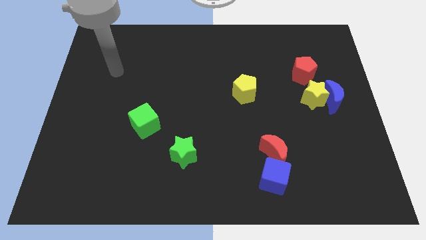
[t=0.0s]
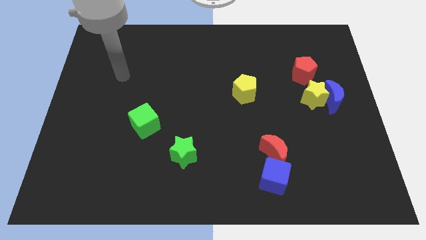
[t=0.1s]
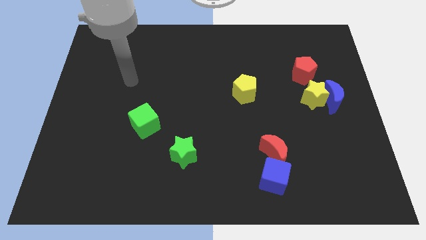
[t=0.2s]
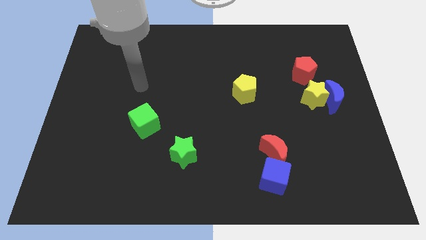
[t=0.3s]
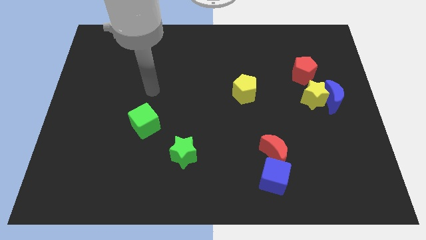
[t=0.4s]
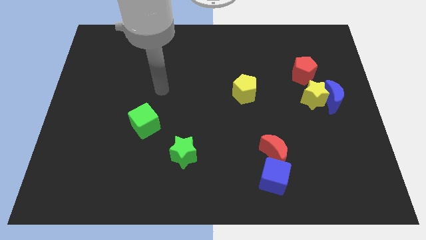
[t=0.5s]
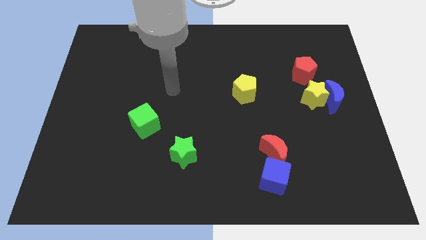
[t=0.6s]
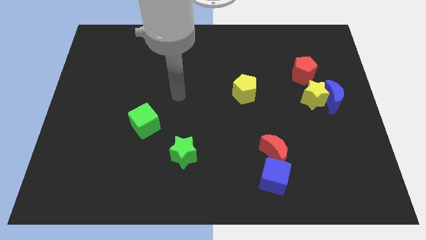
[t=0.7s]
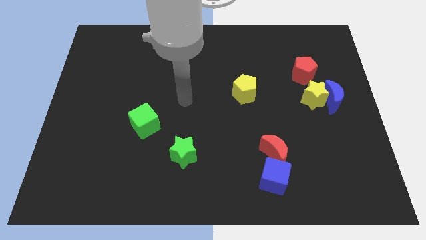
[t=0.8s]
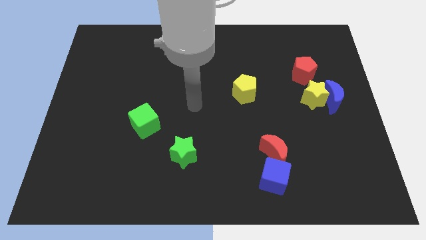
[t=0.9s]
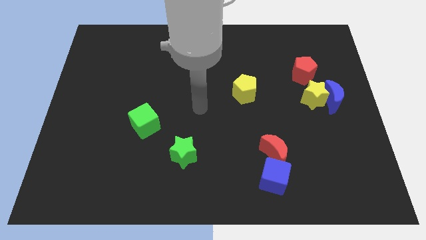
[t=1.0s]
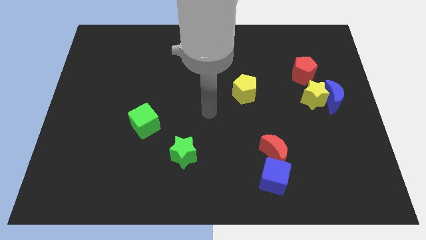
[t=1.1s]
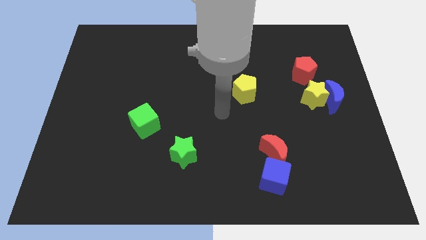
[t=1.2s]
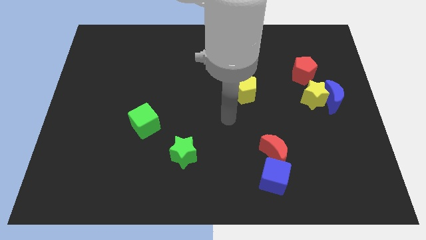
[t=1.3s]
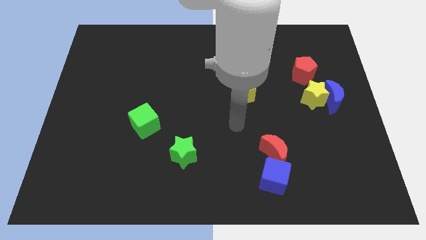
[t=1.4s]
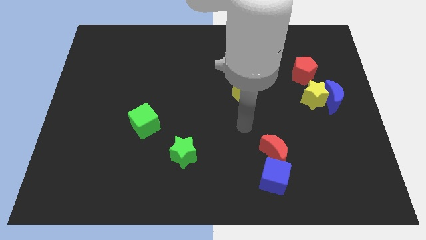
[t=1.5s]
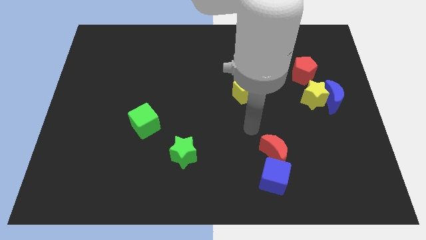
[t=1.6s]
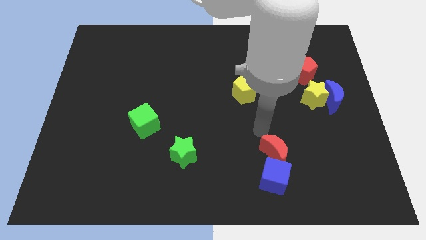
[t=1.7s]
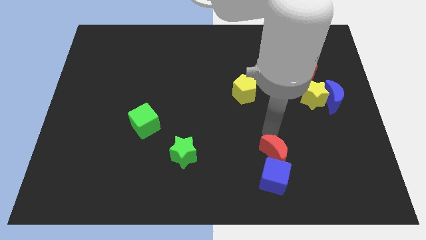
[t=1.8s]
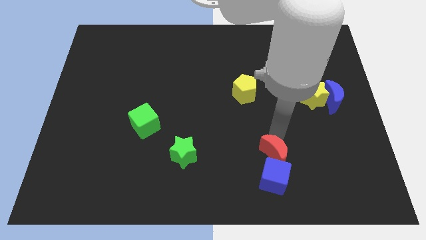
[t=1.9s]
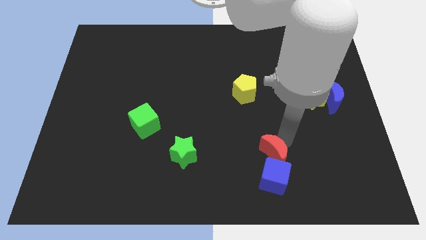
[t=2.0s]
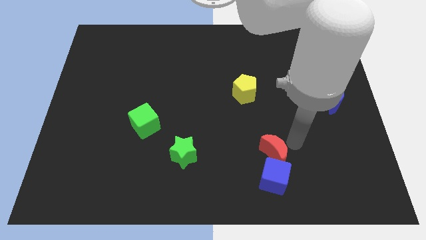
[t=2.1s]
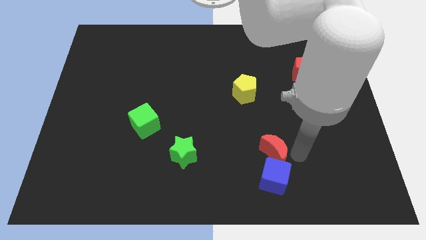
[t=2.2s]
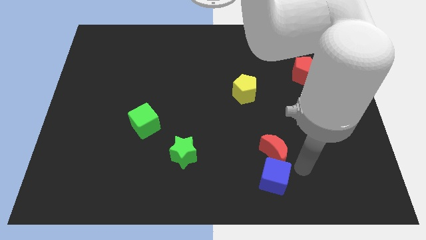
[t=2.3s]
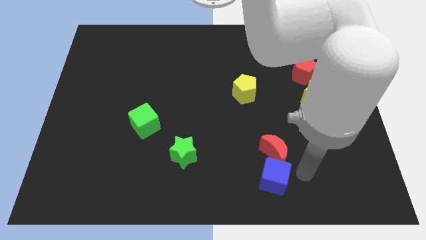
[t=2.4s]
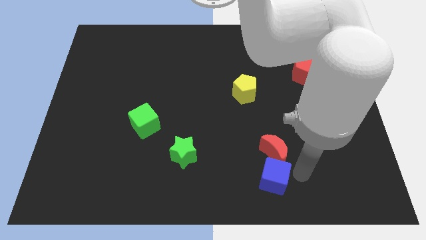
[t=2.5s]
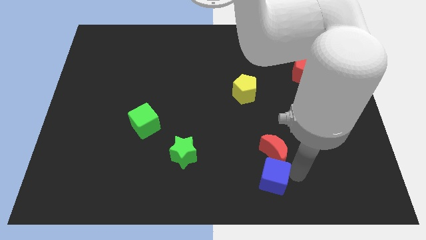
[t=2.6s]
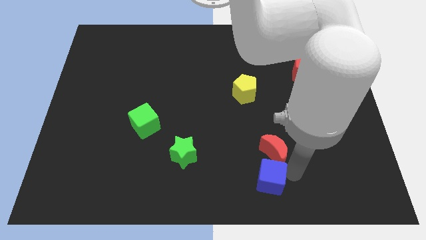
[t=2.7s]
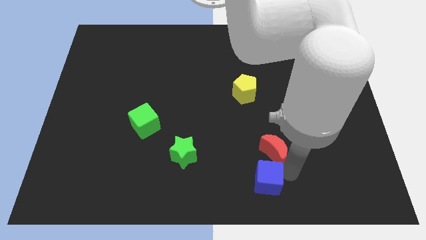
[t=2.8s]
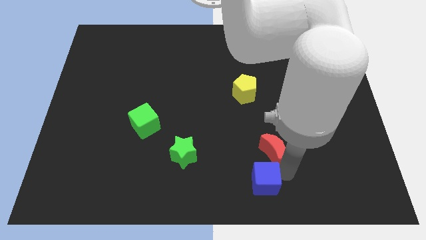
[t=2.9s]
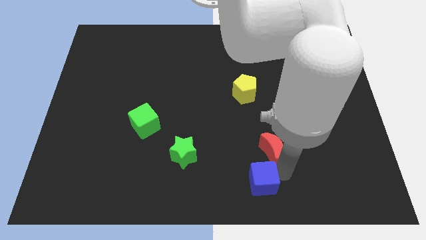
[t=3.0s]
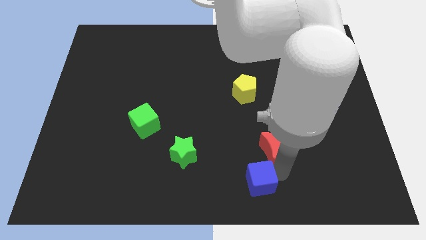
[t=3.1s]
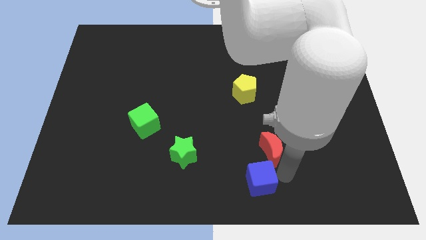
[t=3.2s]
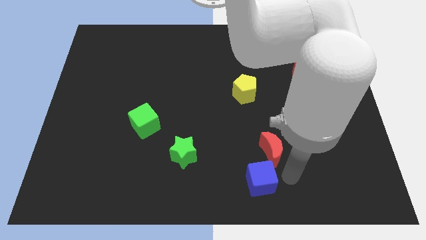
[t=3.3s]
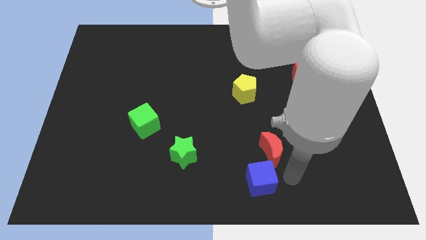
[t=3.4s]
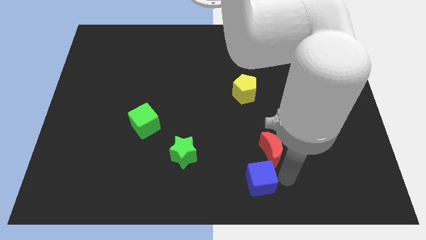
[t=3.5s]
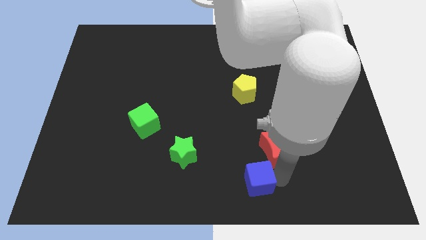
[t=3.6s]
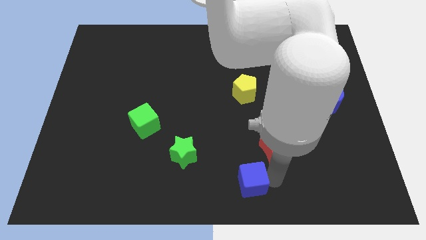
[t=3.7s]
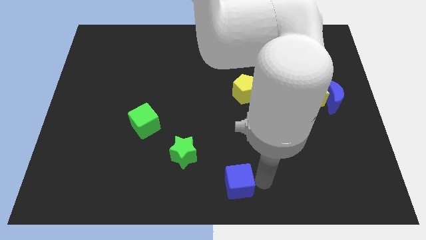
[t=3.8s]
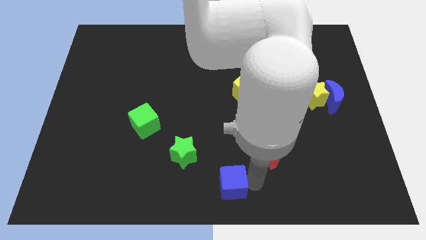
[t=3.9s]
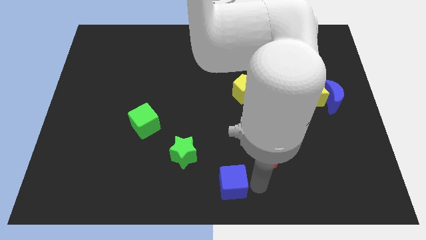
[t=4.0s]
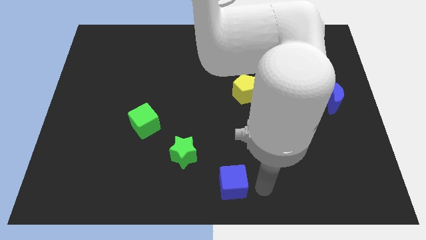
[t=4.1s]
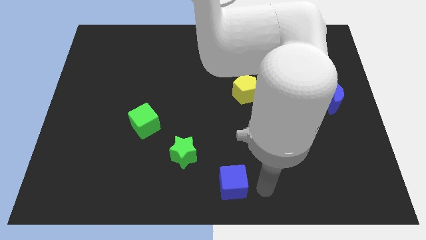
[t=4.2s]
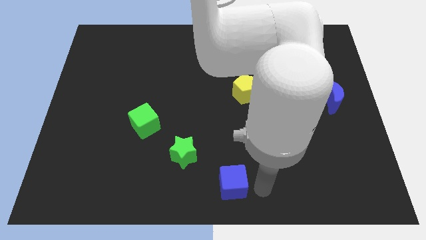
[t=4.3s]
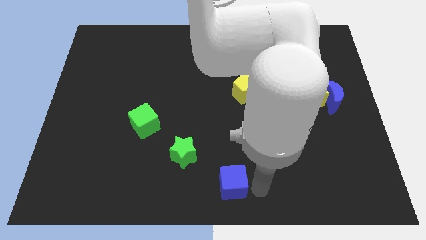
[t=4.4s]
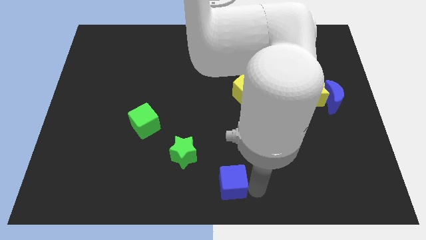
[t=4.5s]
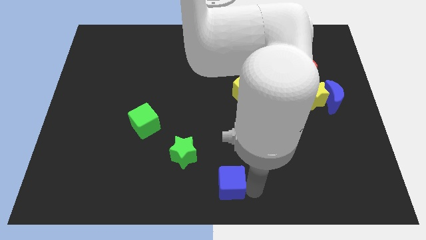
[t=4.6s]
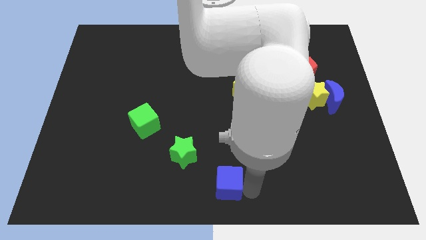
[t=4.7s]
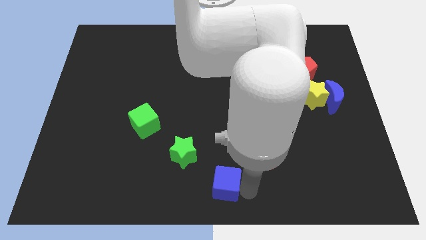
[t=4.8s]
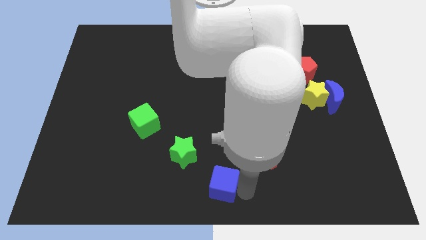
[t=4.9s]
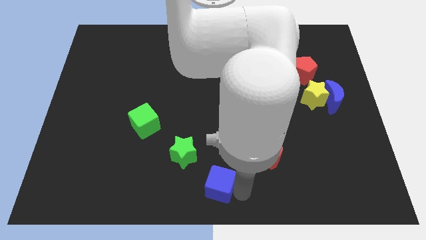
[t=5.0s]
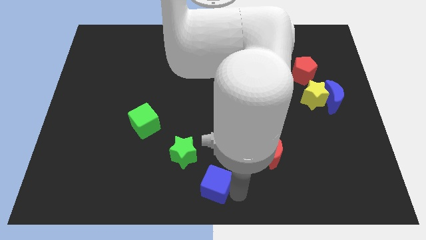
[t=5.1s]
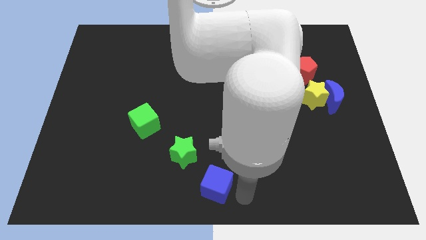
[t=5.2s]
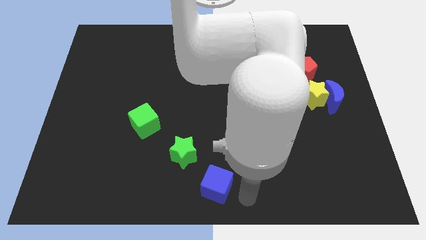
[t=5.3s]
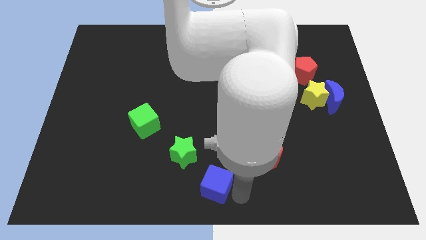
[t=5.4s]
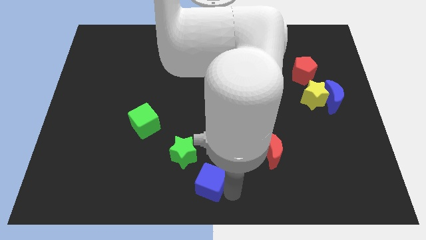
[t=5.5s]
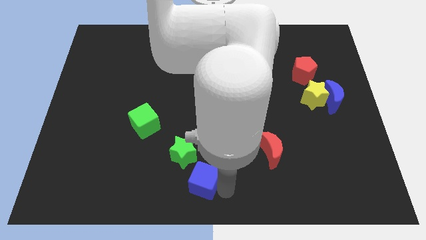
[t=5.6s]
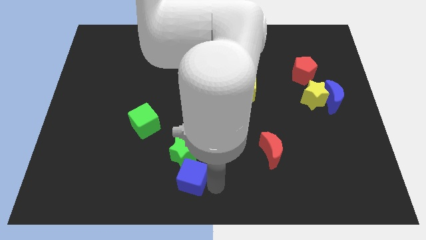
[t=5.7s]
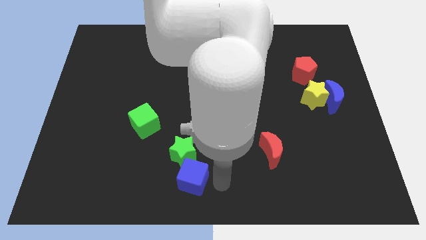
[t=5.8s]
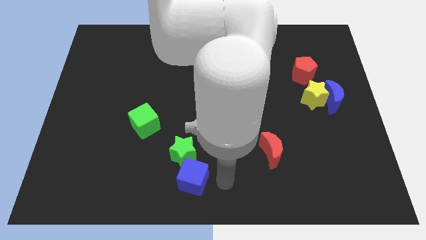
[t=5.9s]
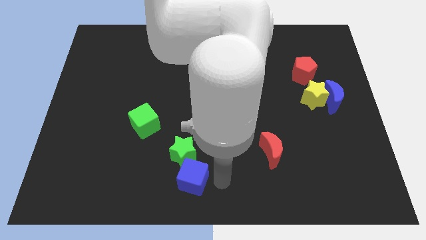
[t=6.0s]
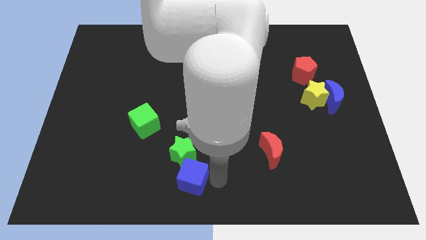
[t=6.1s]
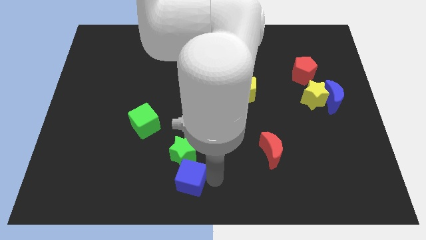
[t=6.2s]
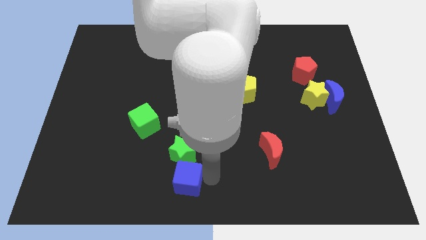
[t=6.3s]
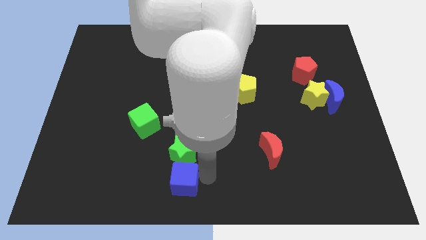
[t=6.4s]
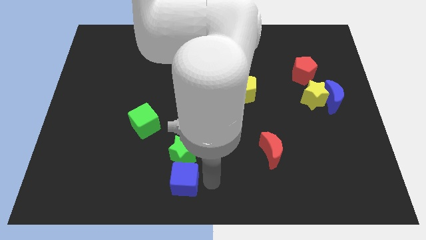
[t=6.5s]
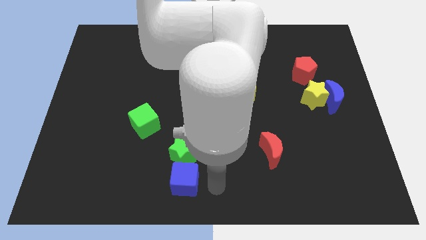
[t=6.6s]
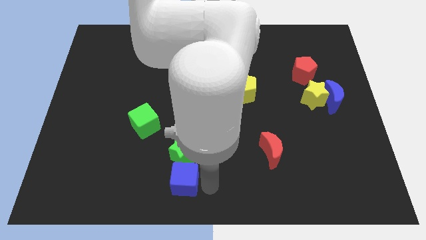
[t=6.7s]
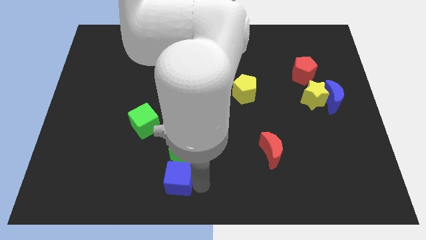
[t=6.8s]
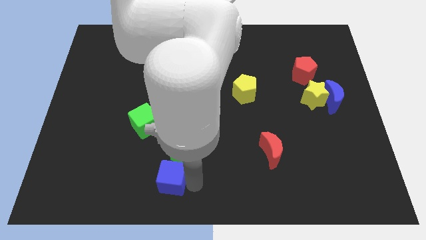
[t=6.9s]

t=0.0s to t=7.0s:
move the blue cube to the left

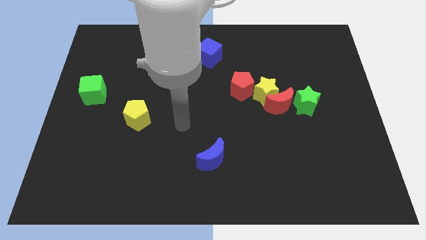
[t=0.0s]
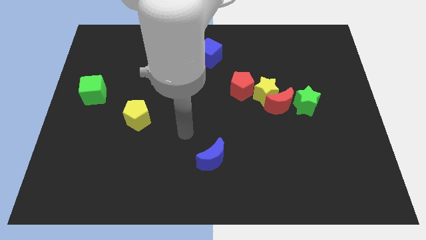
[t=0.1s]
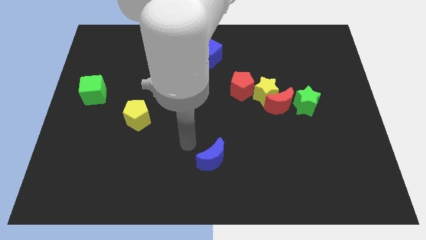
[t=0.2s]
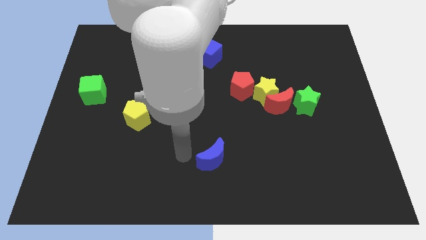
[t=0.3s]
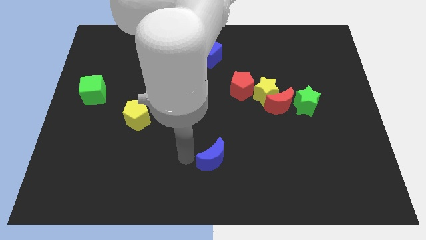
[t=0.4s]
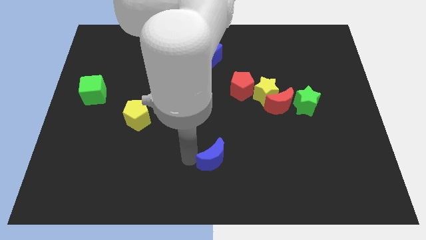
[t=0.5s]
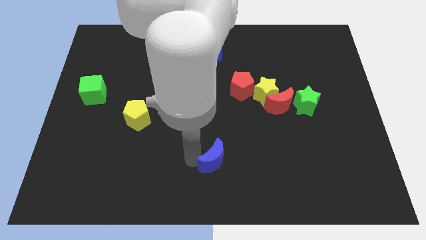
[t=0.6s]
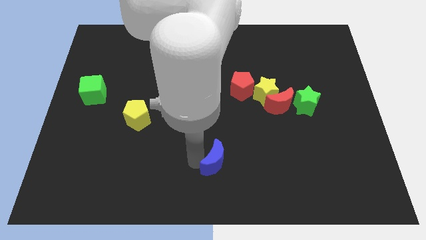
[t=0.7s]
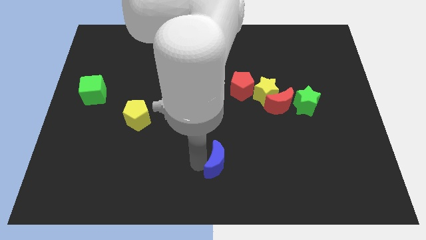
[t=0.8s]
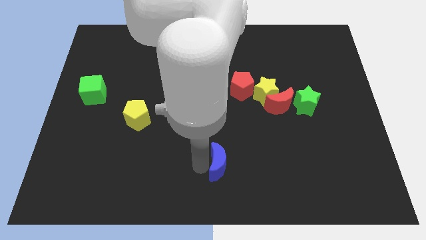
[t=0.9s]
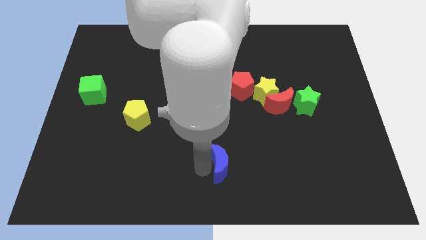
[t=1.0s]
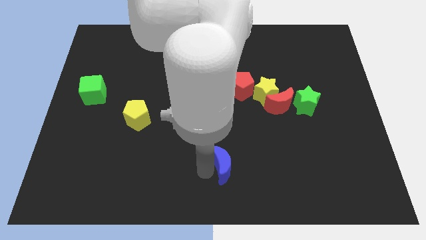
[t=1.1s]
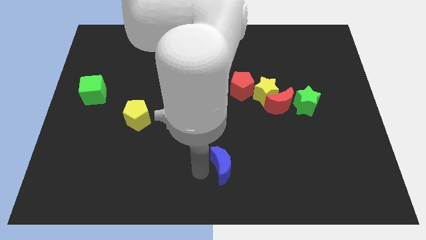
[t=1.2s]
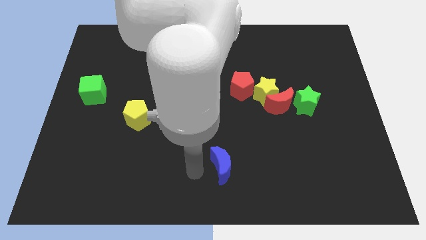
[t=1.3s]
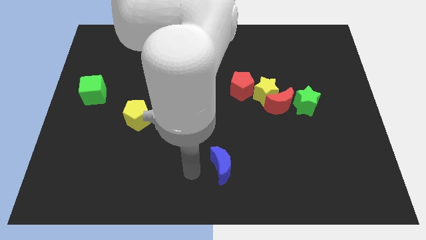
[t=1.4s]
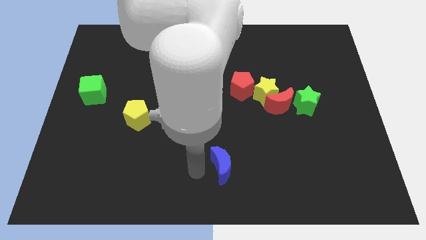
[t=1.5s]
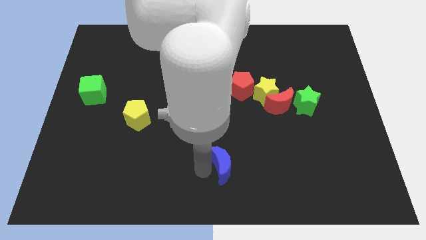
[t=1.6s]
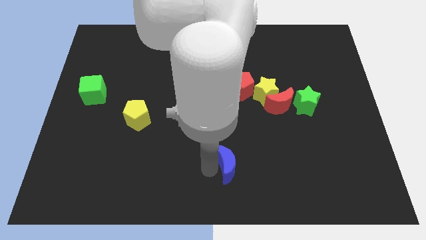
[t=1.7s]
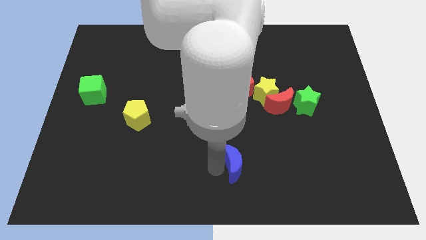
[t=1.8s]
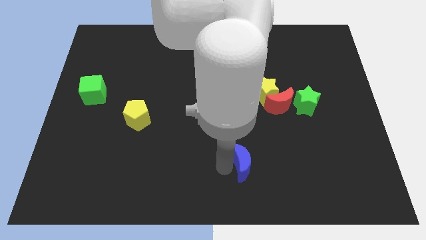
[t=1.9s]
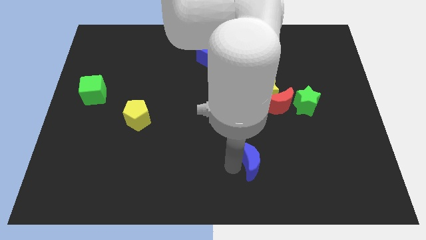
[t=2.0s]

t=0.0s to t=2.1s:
slightly move the blue moon to the right
